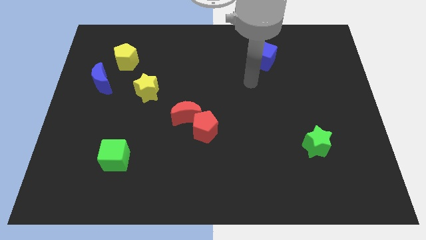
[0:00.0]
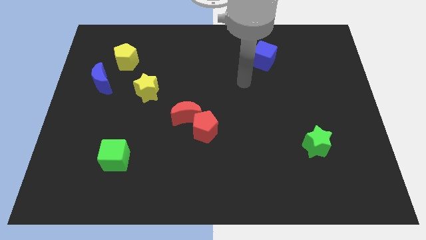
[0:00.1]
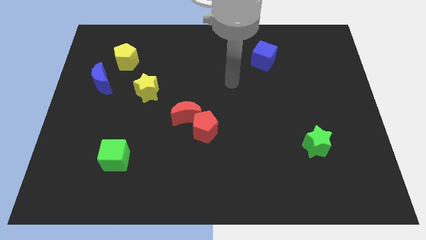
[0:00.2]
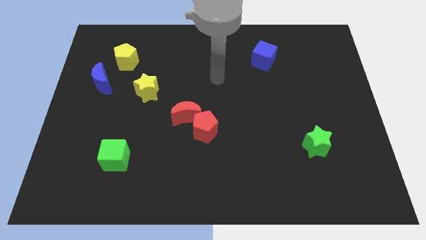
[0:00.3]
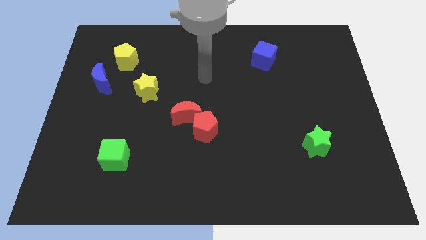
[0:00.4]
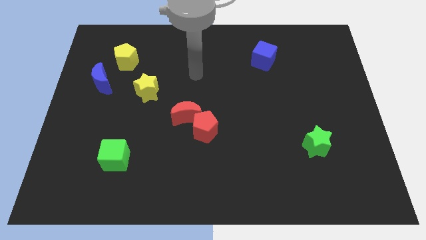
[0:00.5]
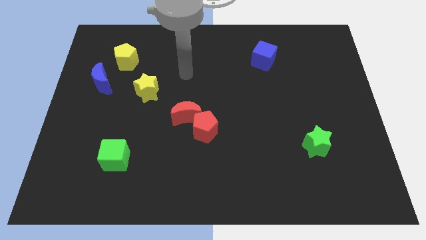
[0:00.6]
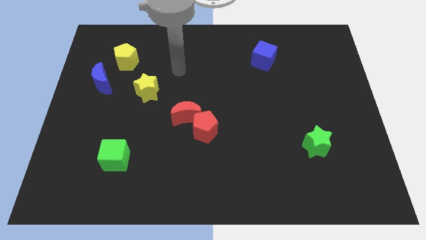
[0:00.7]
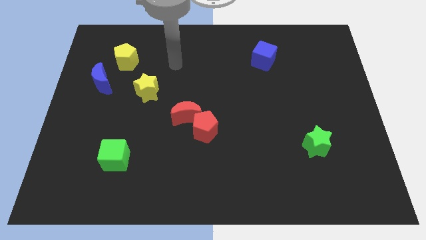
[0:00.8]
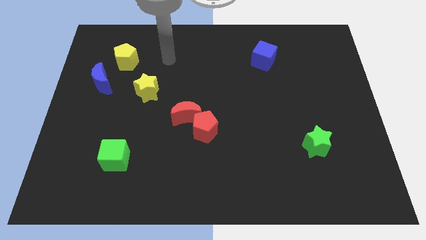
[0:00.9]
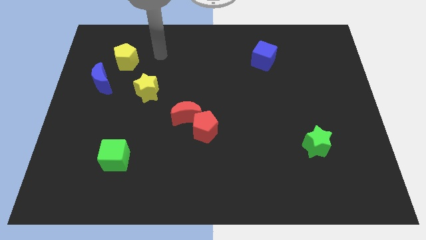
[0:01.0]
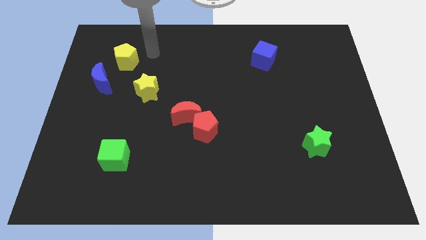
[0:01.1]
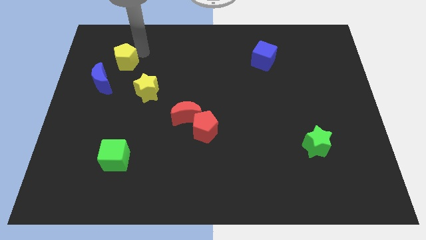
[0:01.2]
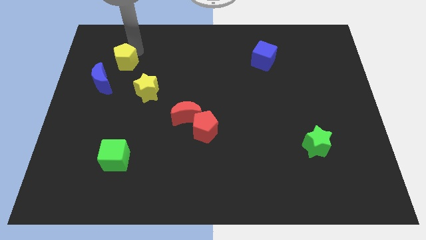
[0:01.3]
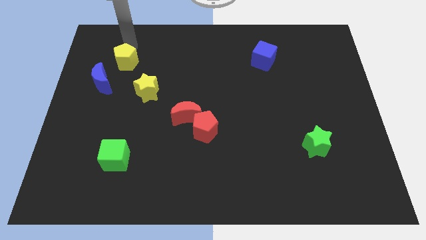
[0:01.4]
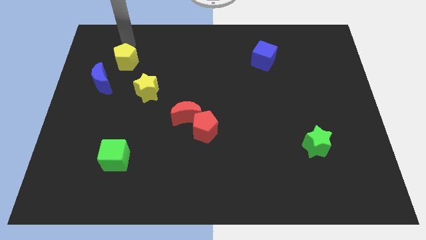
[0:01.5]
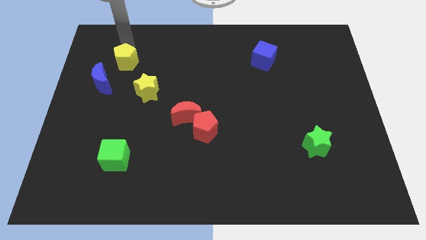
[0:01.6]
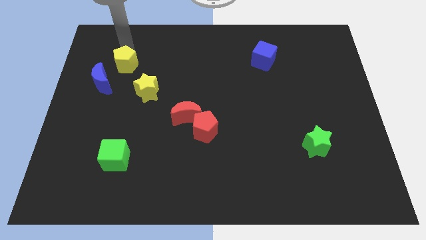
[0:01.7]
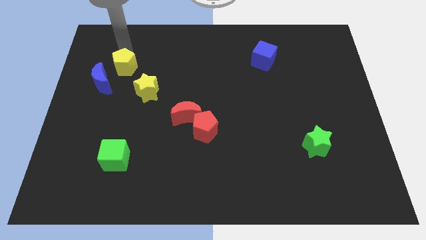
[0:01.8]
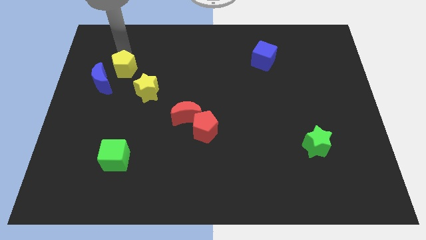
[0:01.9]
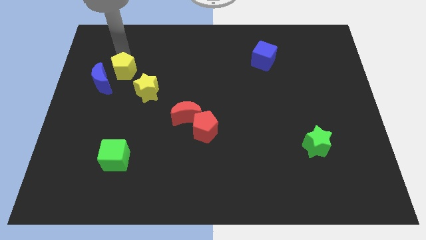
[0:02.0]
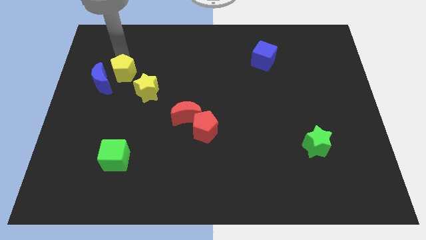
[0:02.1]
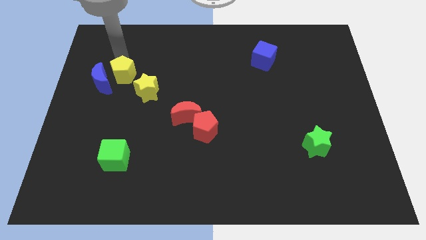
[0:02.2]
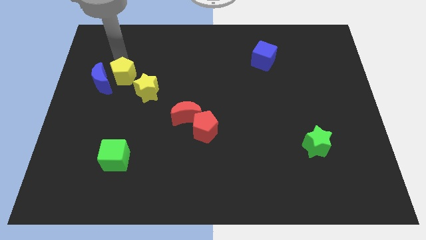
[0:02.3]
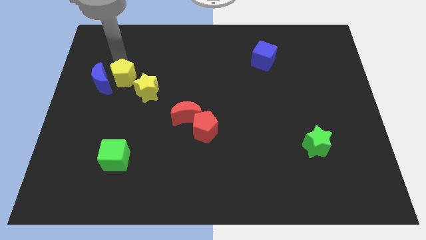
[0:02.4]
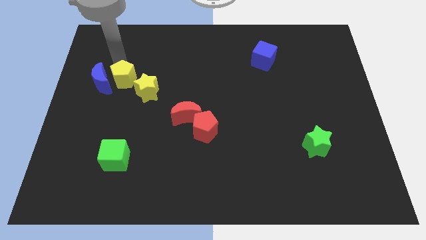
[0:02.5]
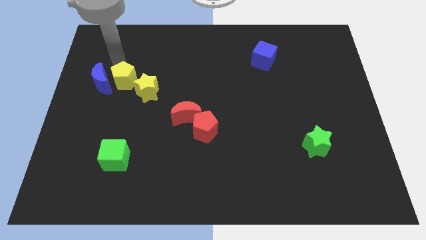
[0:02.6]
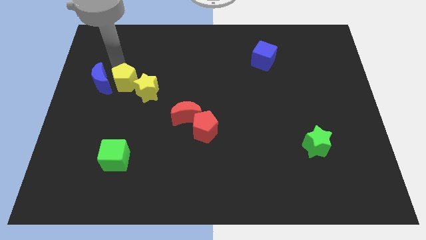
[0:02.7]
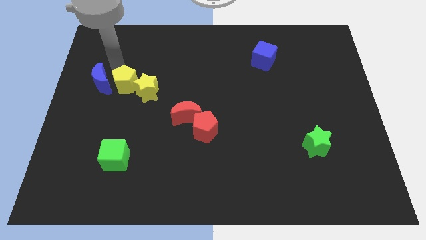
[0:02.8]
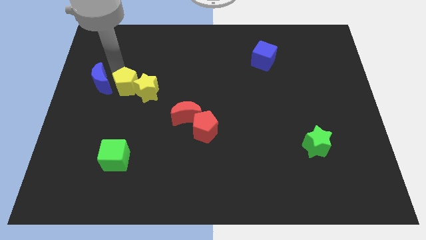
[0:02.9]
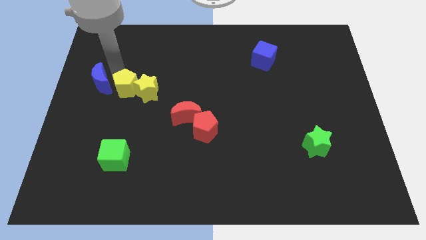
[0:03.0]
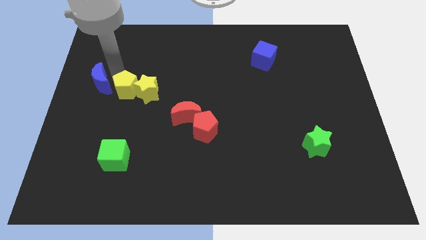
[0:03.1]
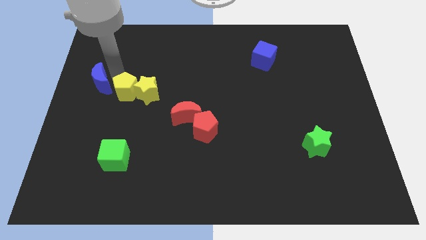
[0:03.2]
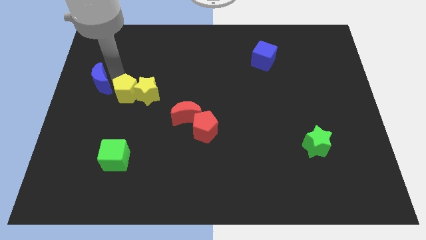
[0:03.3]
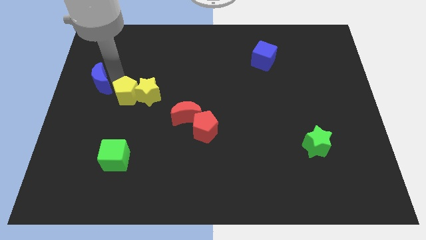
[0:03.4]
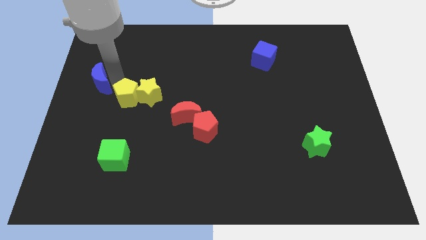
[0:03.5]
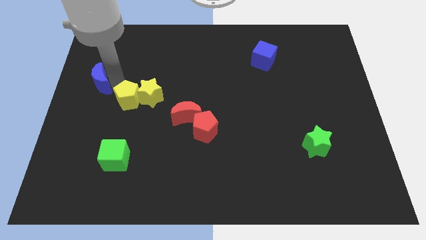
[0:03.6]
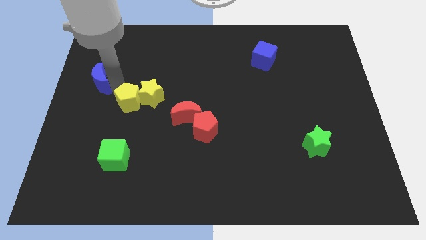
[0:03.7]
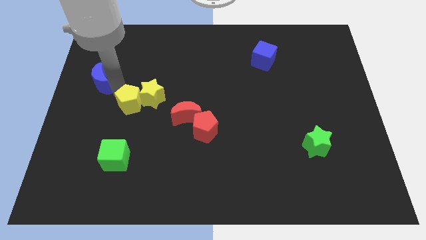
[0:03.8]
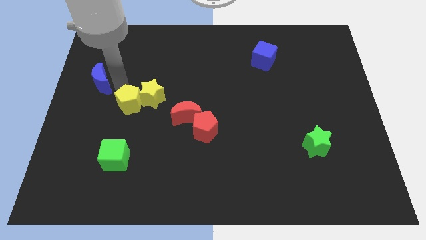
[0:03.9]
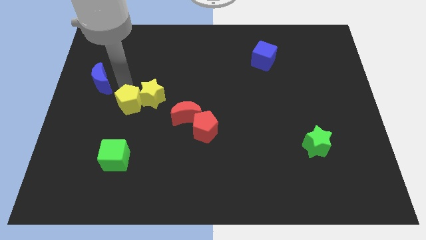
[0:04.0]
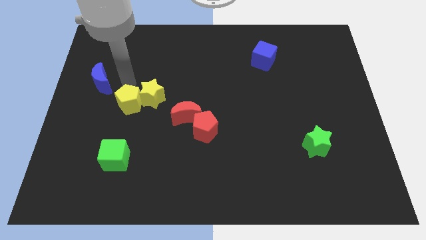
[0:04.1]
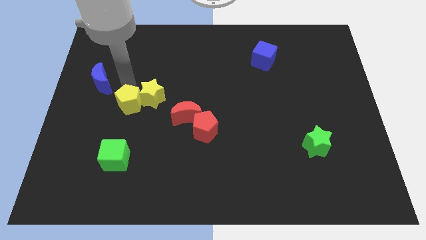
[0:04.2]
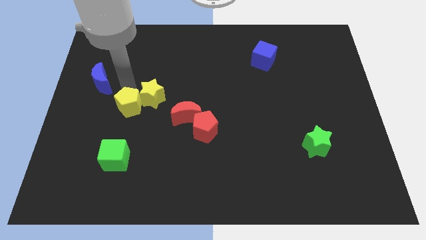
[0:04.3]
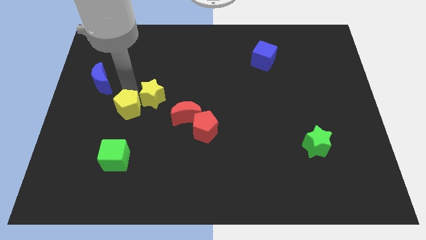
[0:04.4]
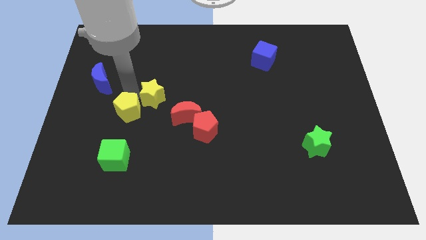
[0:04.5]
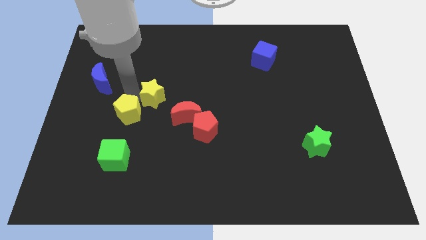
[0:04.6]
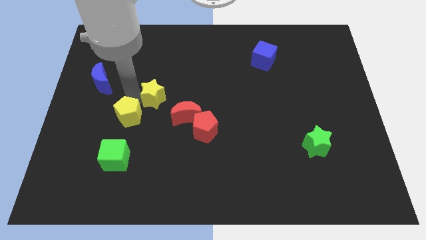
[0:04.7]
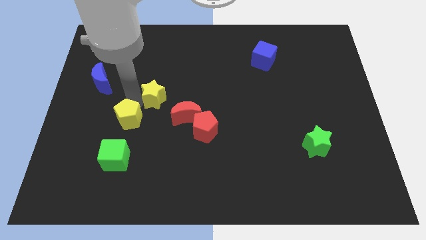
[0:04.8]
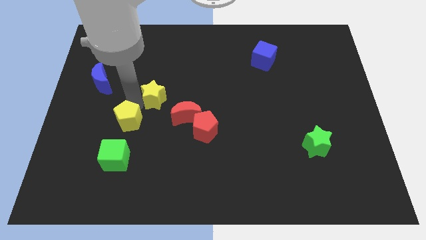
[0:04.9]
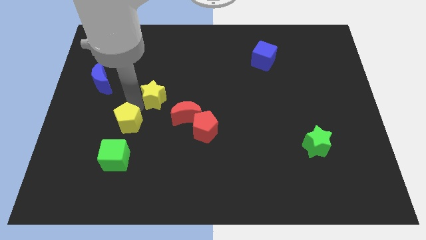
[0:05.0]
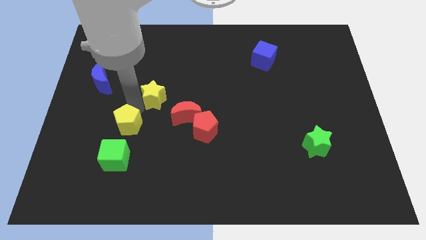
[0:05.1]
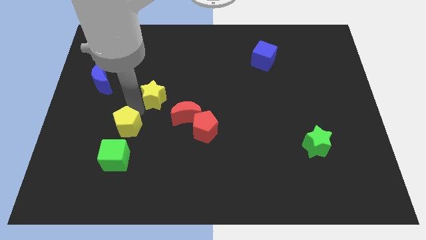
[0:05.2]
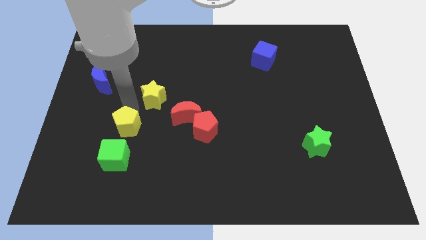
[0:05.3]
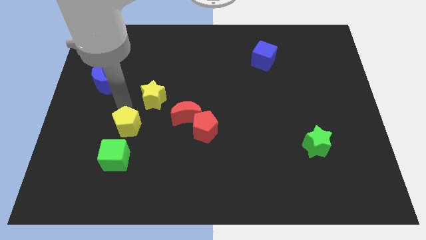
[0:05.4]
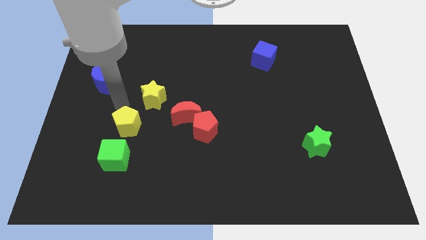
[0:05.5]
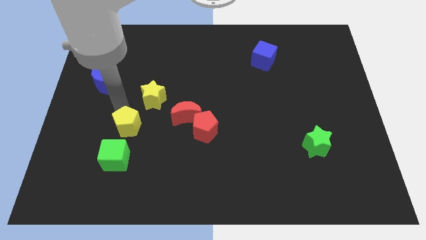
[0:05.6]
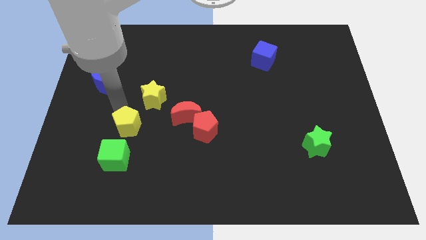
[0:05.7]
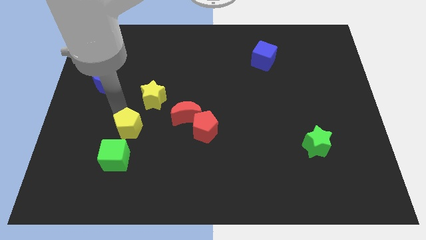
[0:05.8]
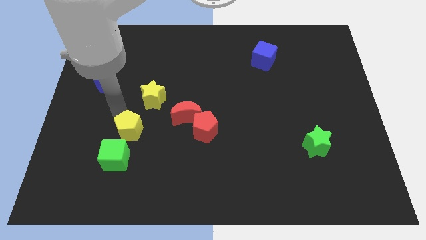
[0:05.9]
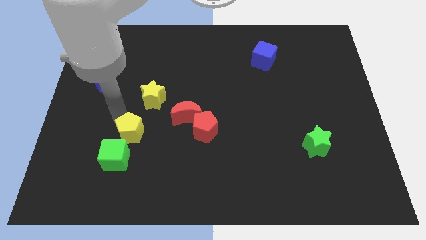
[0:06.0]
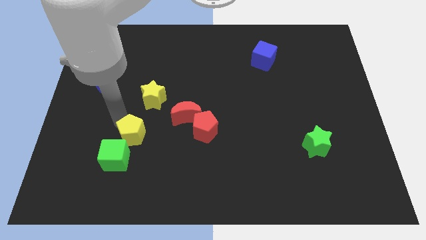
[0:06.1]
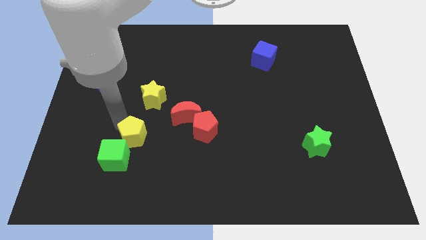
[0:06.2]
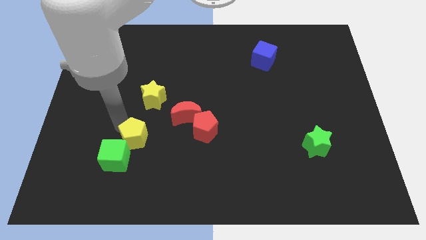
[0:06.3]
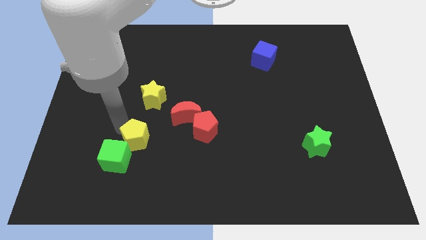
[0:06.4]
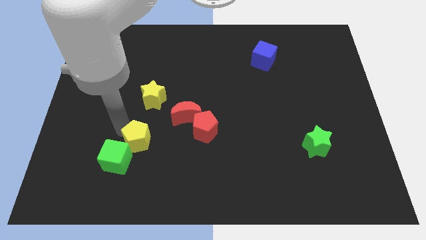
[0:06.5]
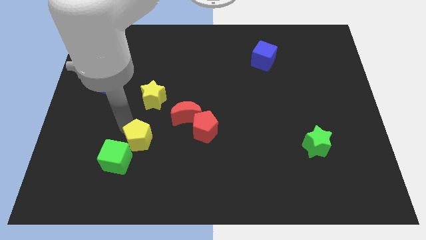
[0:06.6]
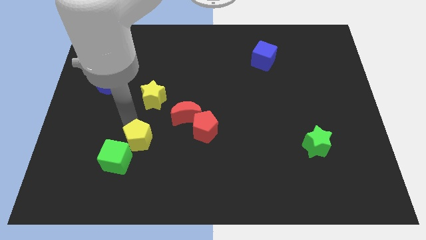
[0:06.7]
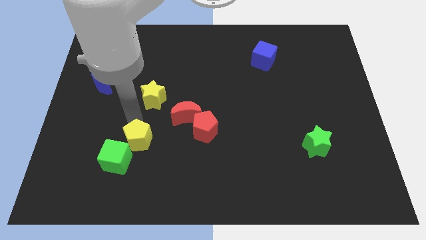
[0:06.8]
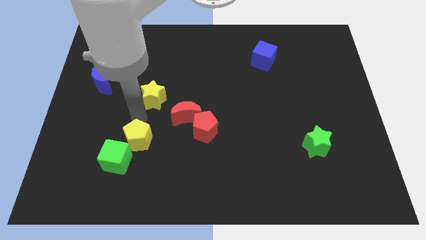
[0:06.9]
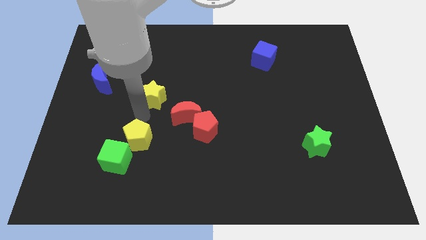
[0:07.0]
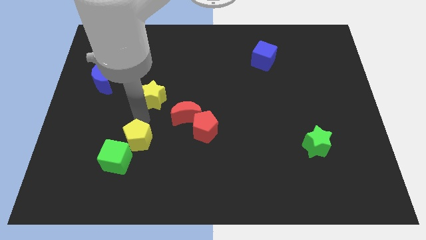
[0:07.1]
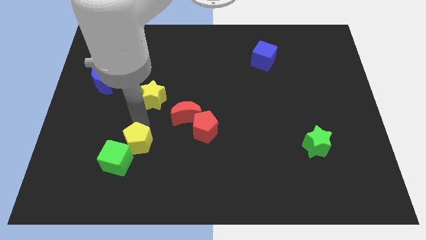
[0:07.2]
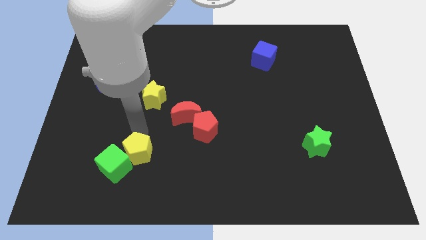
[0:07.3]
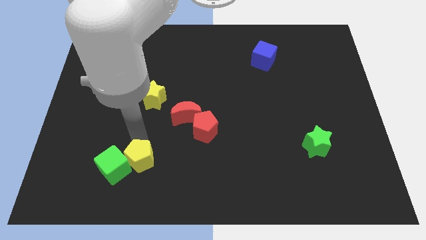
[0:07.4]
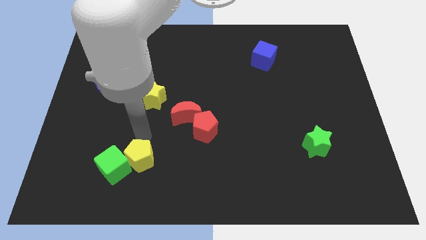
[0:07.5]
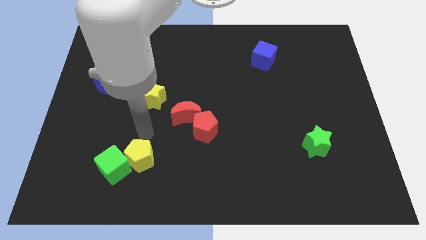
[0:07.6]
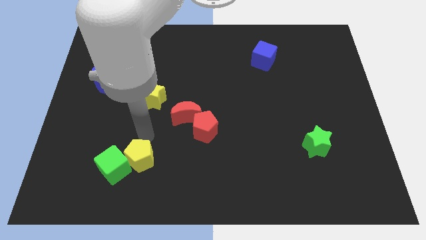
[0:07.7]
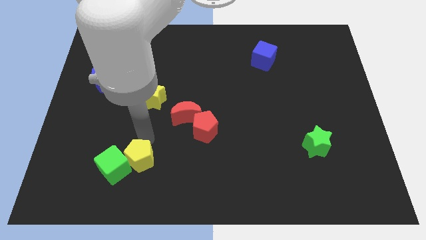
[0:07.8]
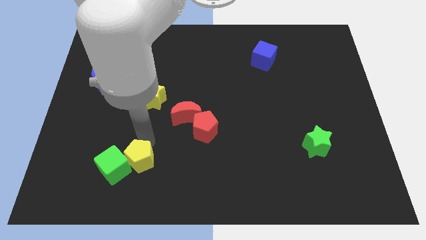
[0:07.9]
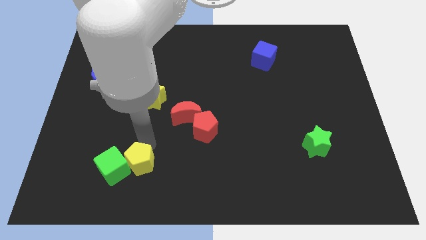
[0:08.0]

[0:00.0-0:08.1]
push the yellow pentagon diagonally down and to the right of the green cube
